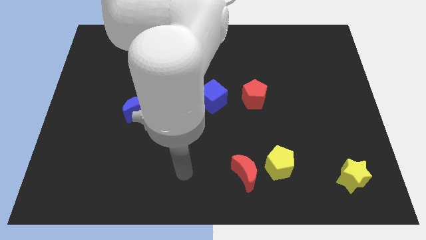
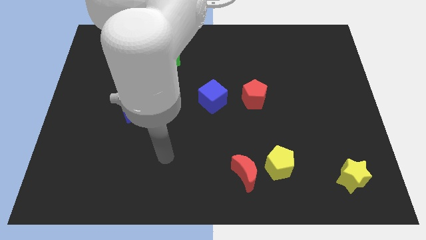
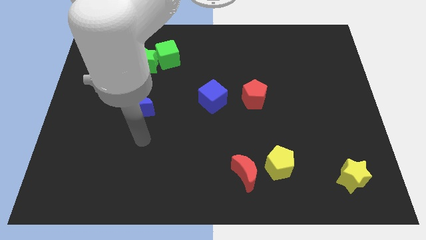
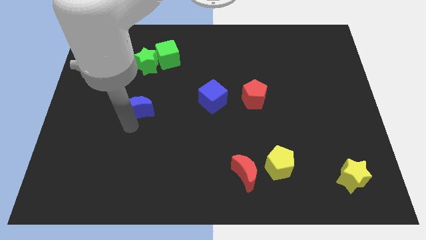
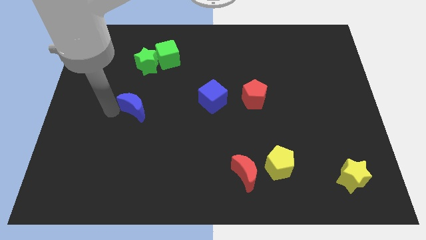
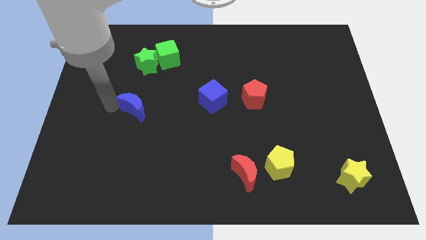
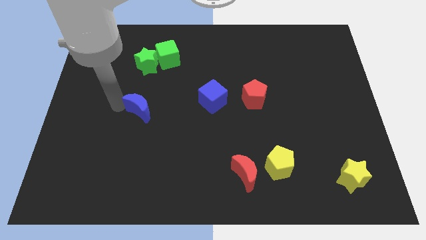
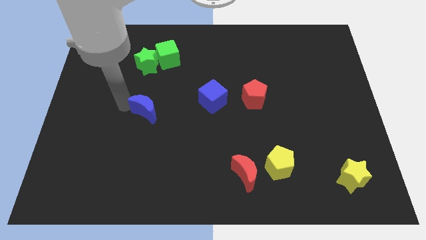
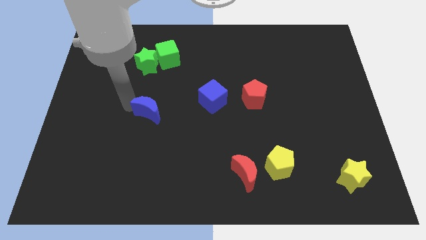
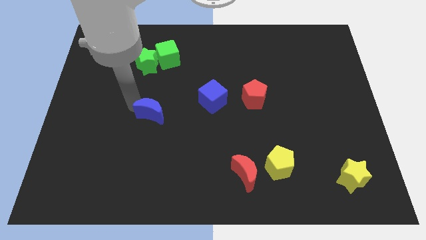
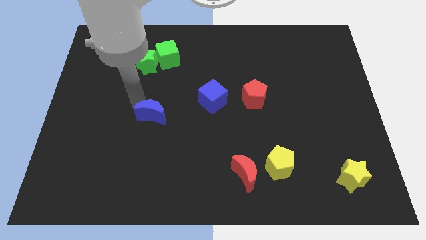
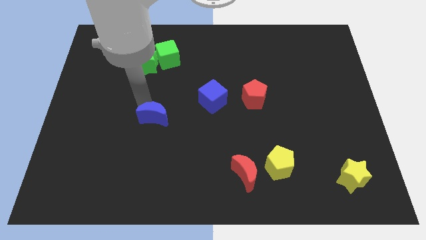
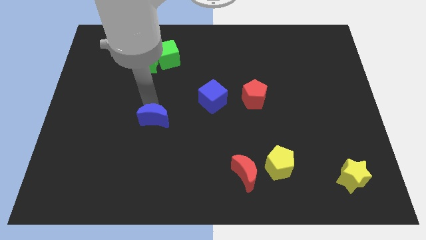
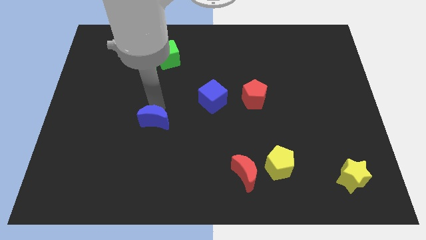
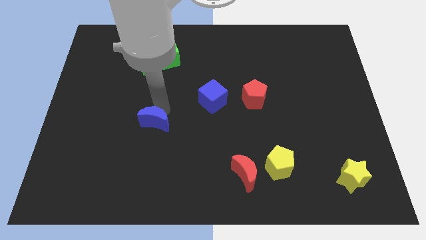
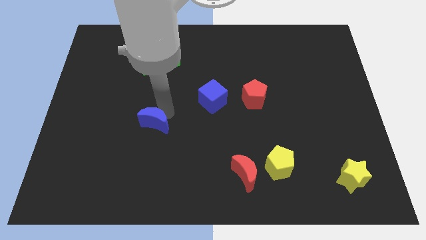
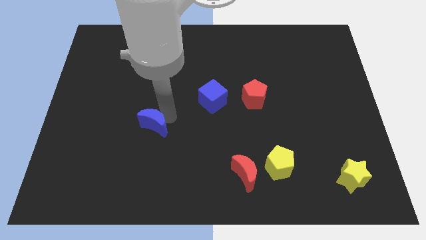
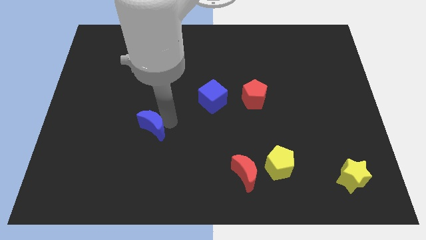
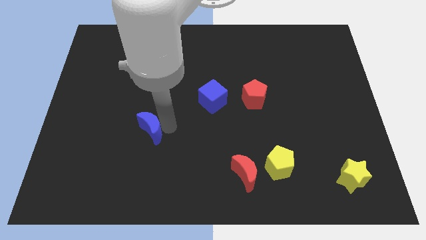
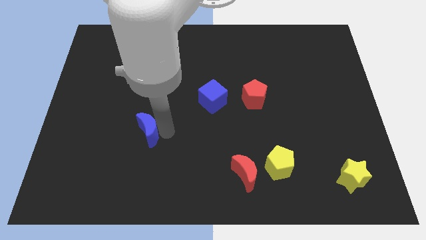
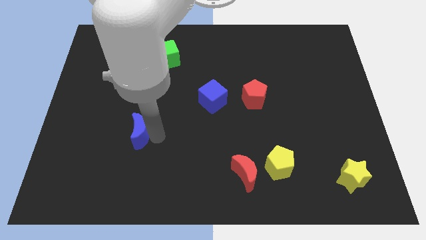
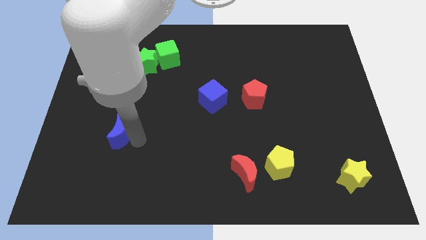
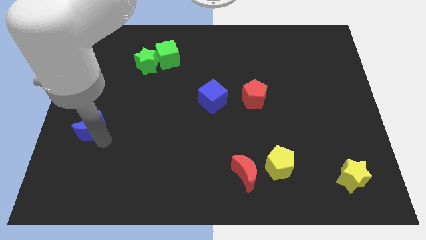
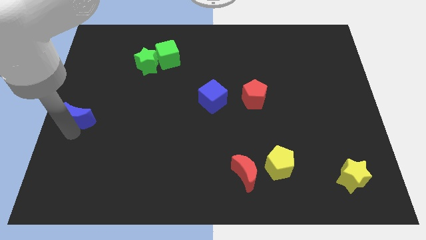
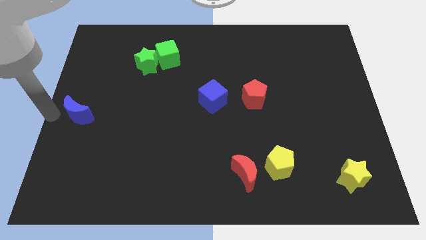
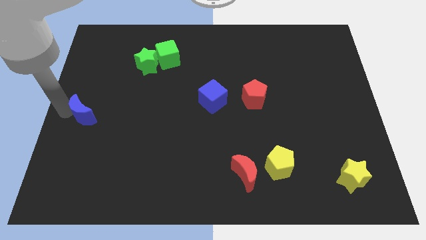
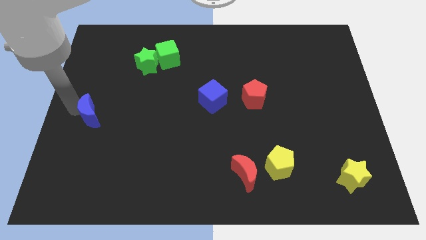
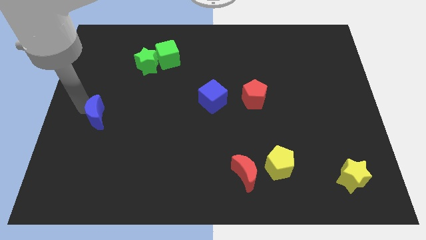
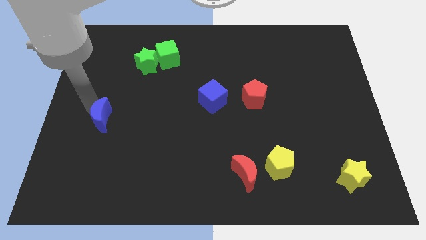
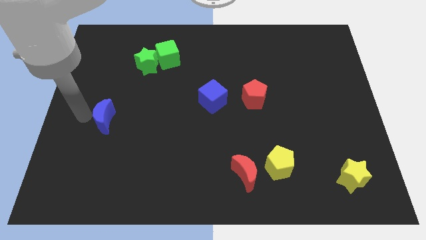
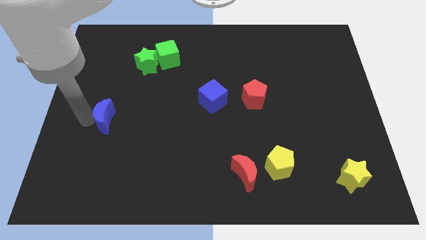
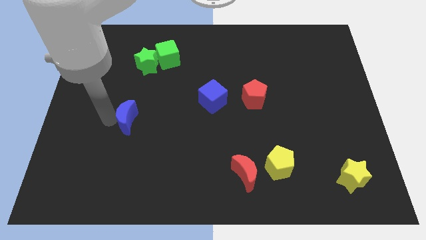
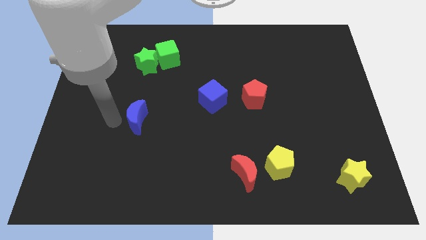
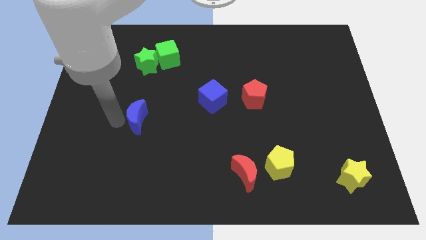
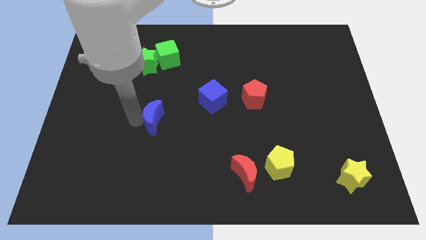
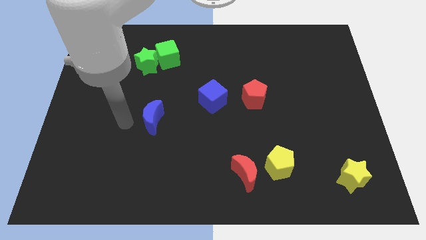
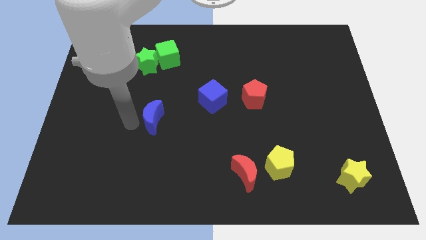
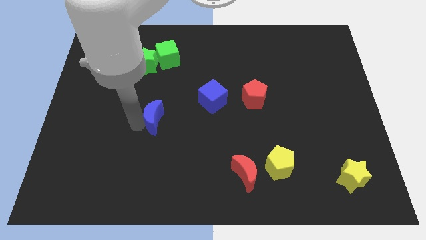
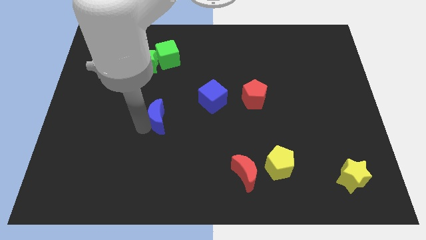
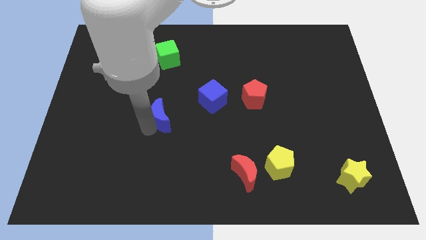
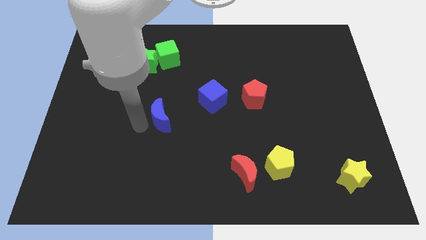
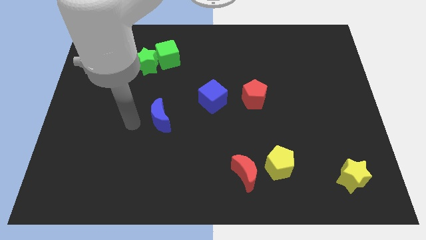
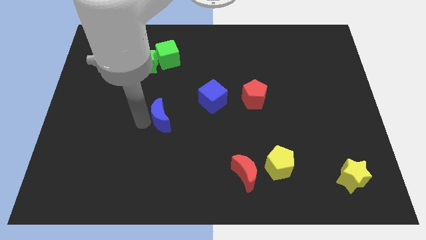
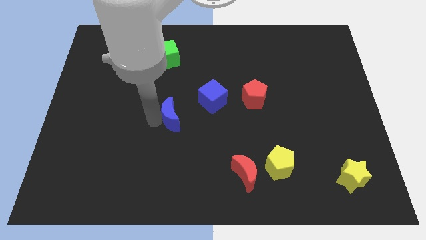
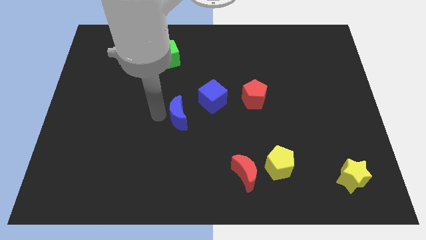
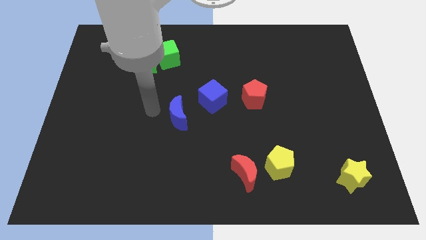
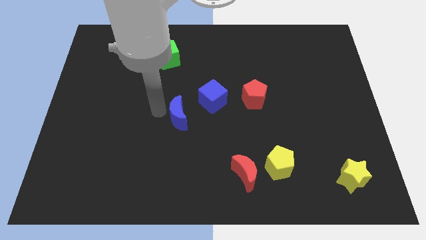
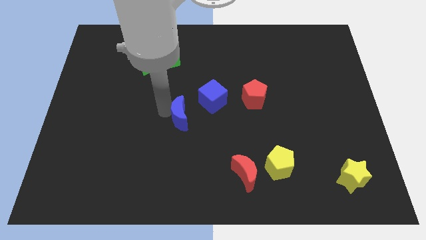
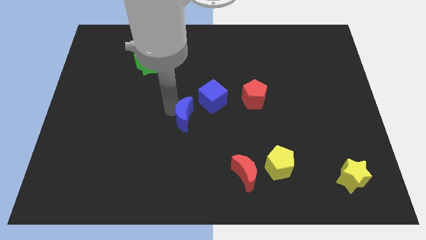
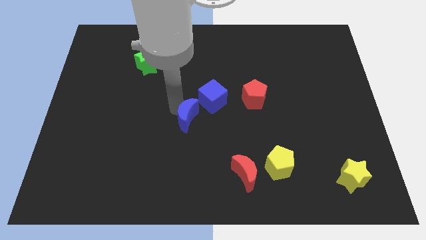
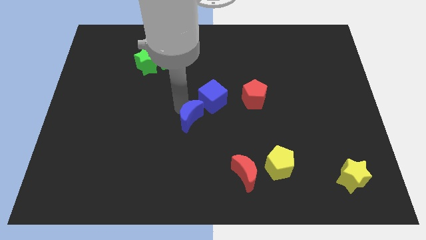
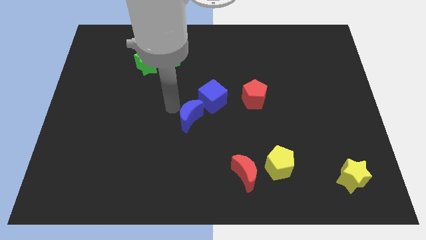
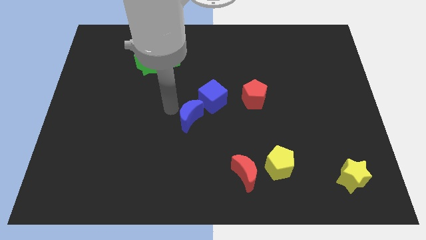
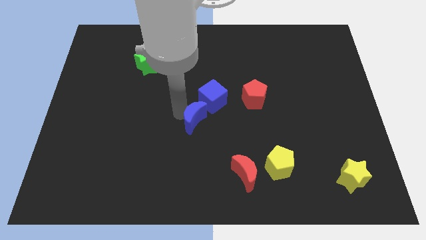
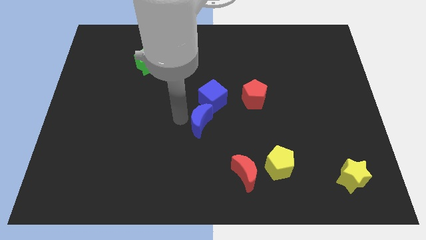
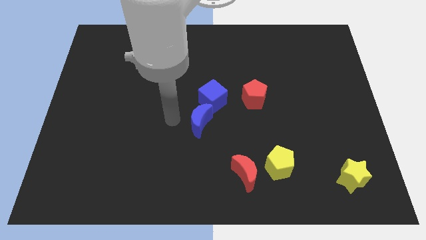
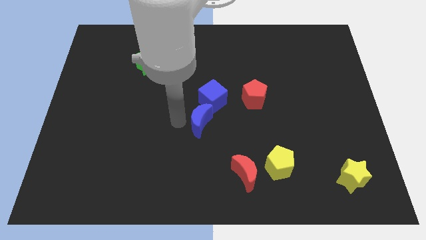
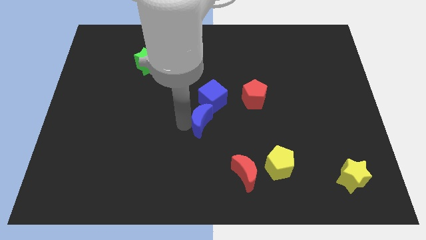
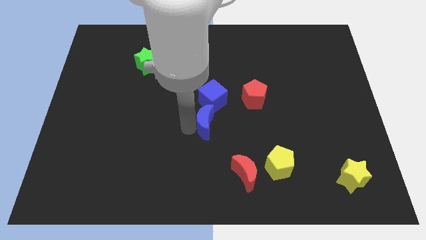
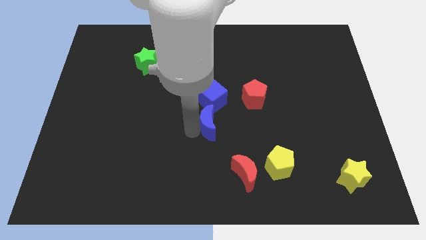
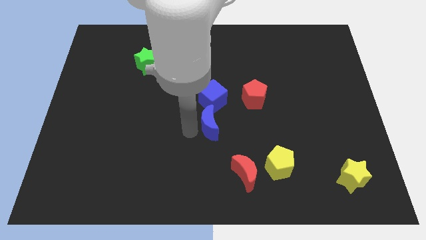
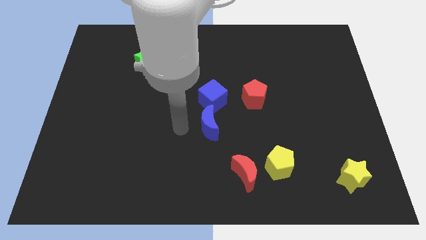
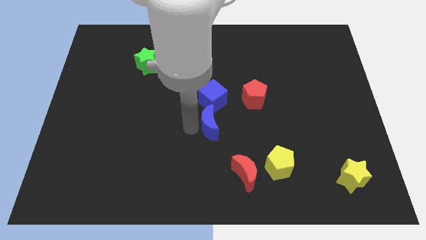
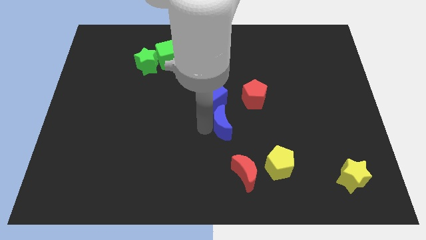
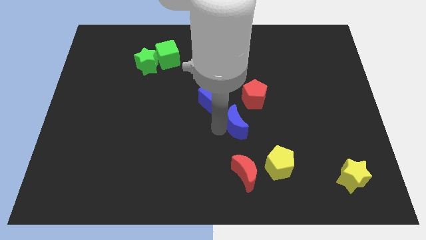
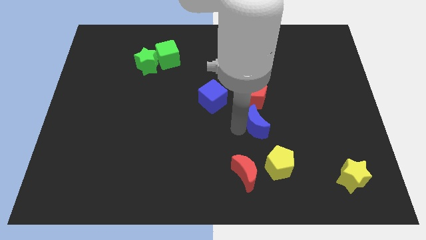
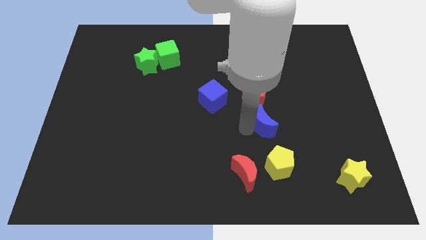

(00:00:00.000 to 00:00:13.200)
put the blue moon diagonally down and to the right of the red pentagon

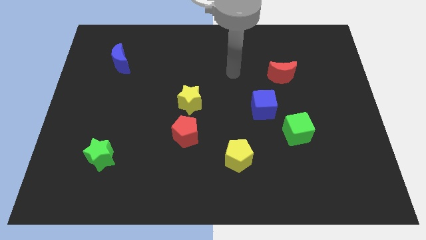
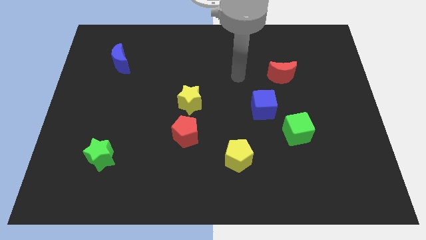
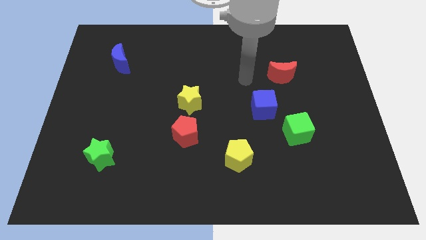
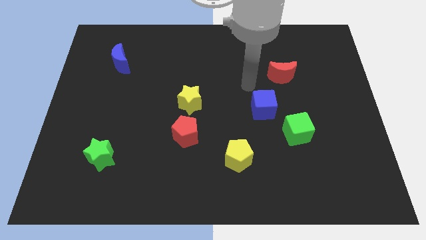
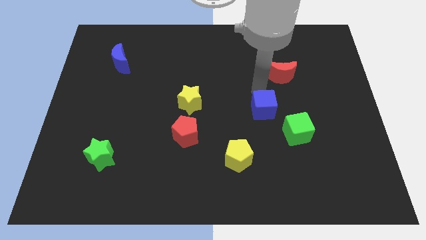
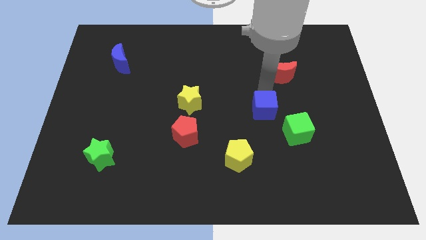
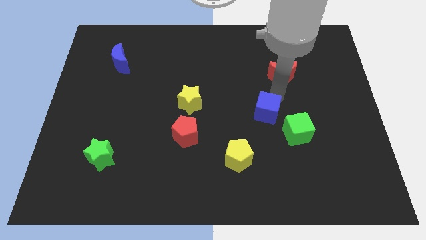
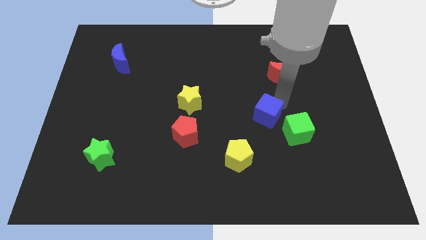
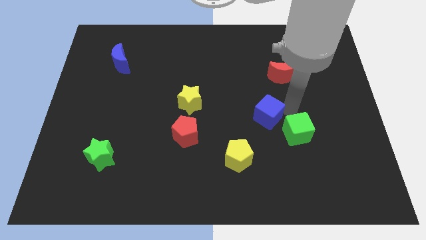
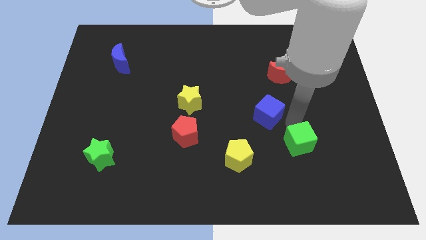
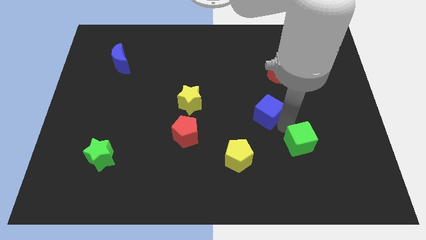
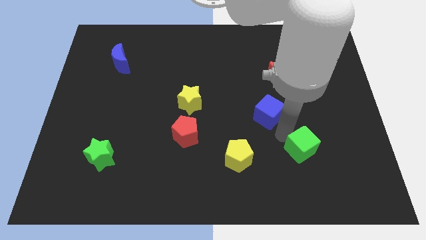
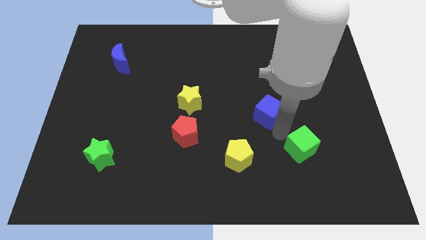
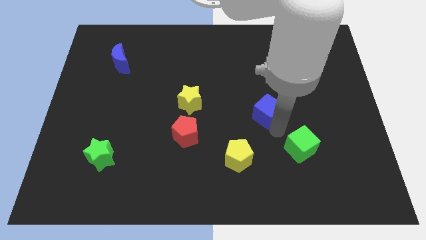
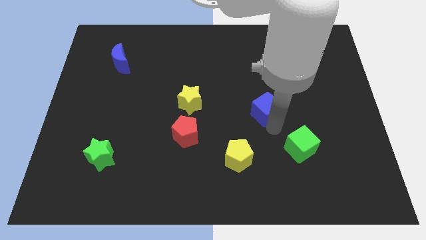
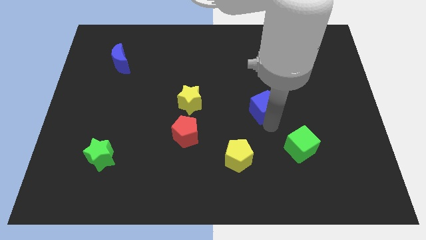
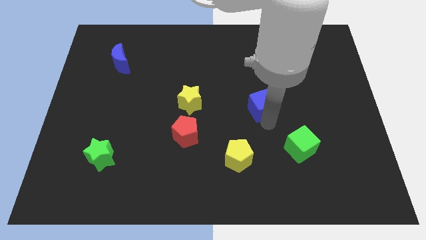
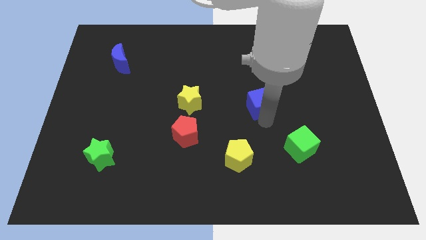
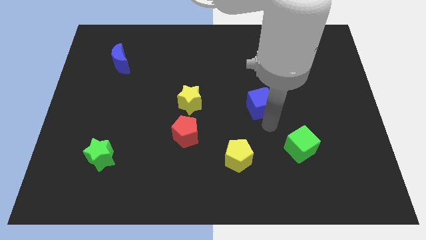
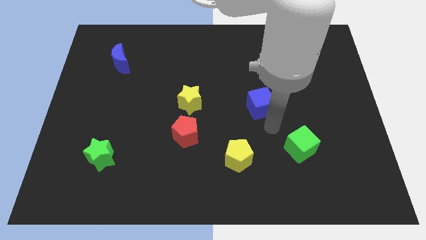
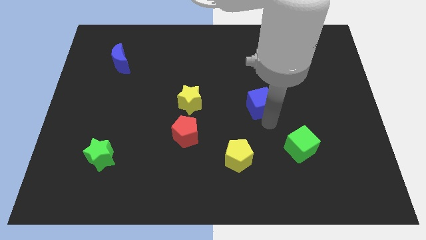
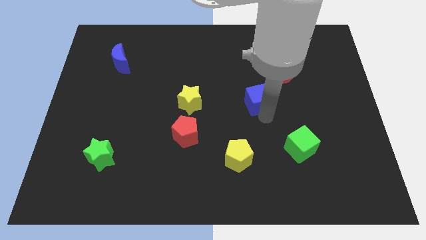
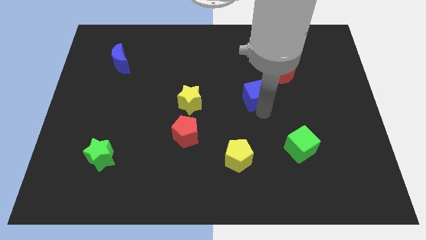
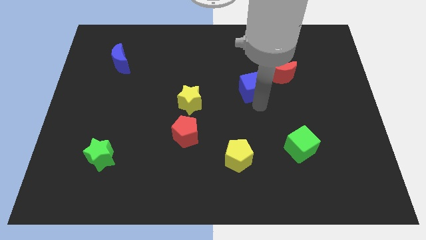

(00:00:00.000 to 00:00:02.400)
push the blue cube to the left side of the red moon
